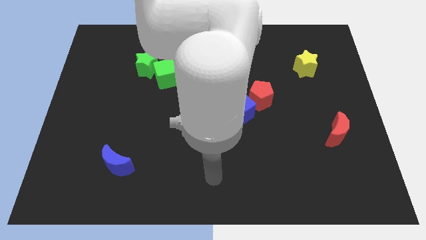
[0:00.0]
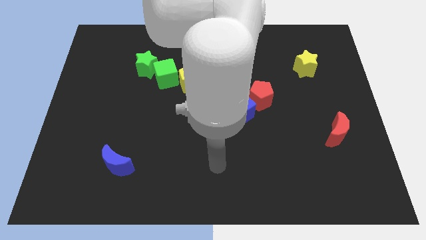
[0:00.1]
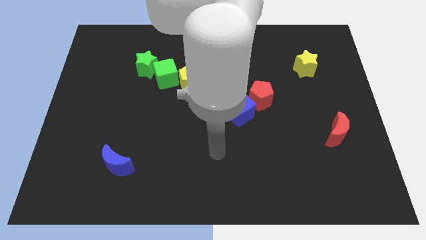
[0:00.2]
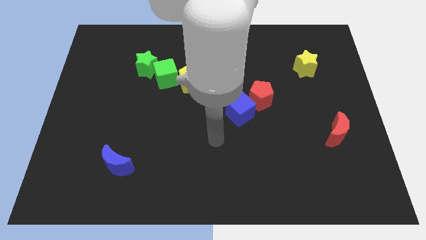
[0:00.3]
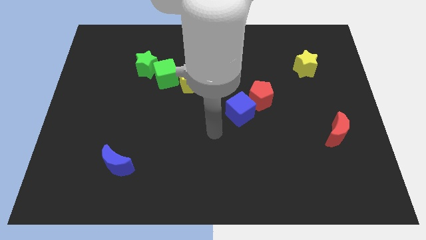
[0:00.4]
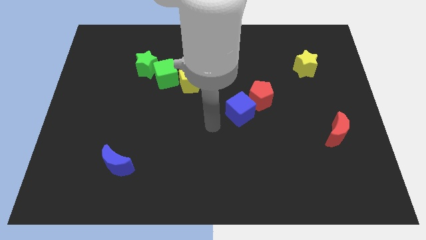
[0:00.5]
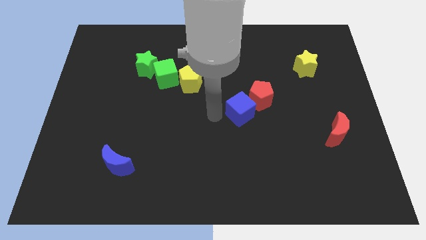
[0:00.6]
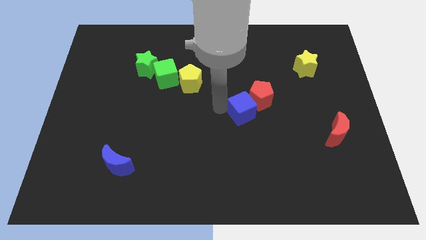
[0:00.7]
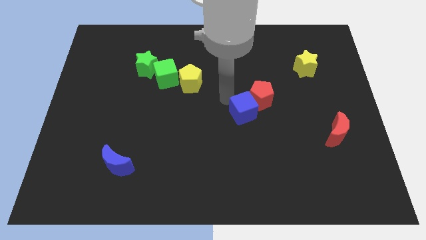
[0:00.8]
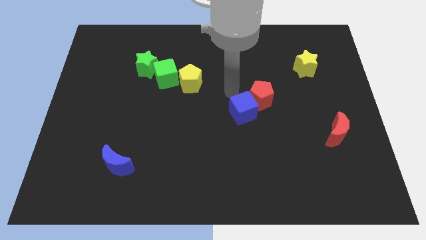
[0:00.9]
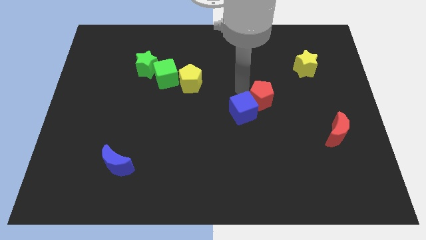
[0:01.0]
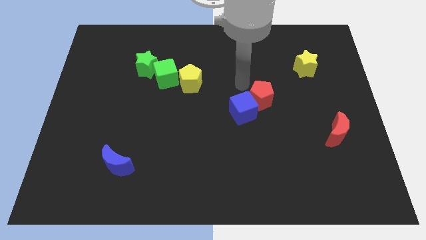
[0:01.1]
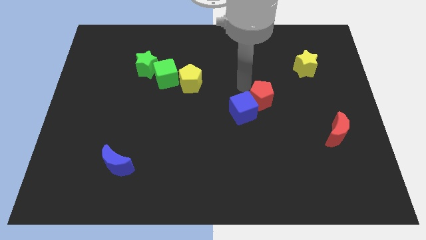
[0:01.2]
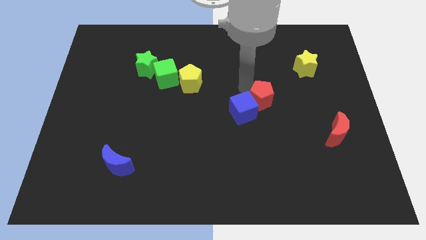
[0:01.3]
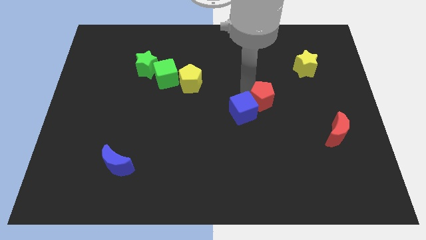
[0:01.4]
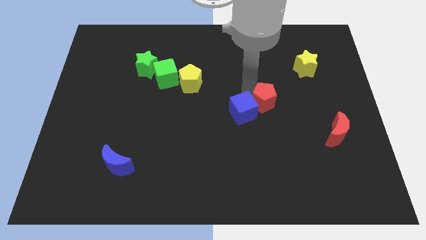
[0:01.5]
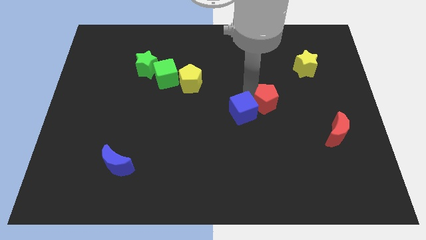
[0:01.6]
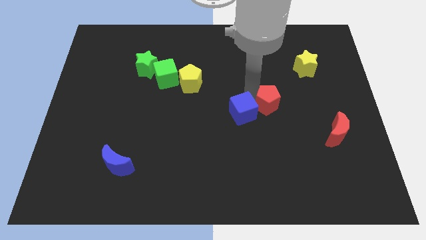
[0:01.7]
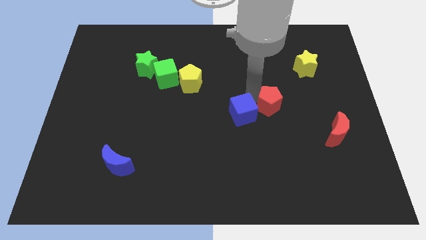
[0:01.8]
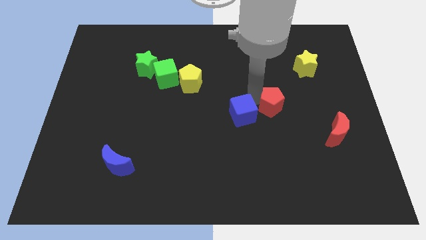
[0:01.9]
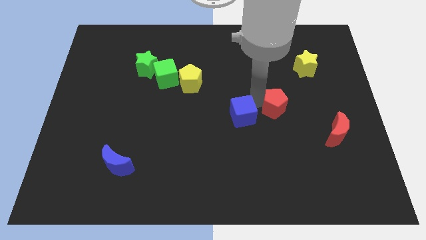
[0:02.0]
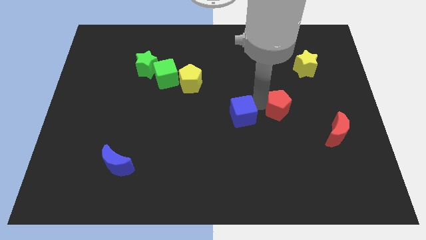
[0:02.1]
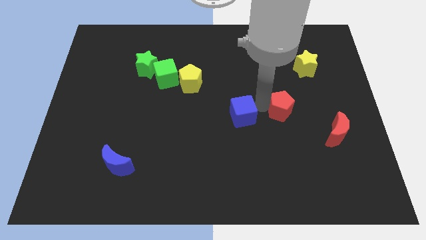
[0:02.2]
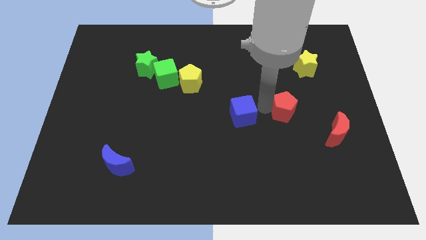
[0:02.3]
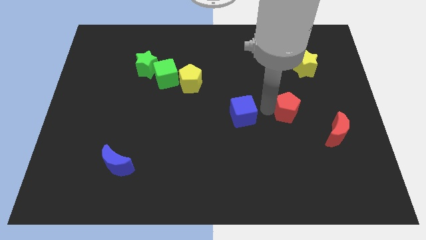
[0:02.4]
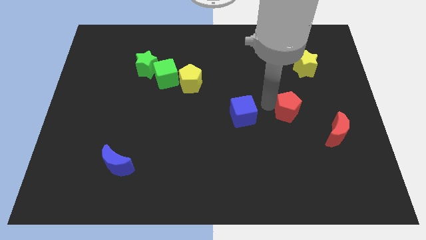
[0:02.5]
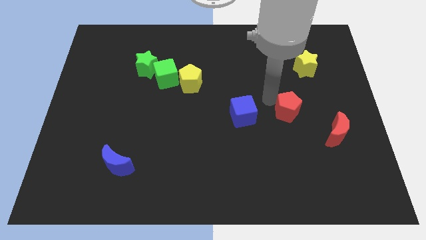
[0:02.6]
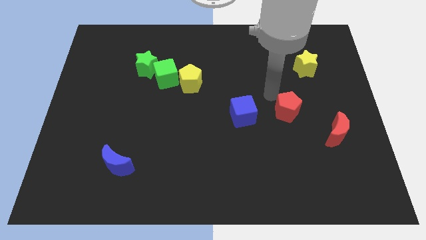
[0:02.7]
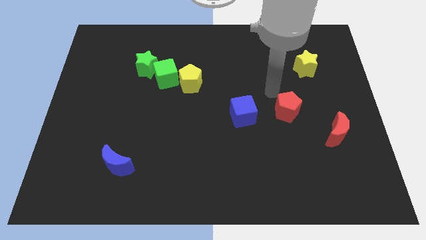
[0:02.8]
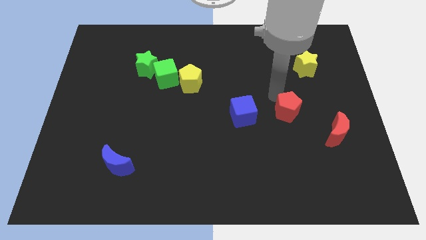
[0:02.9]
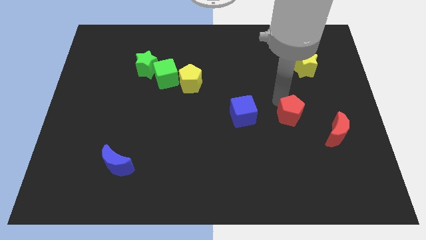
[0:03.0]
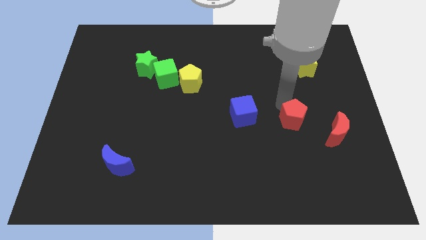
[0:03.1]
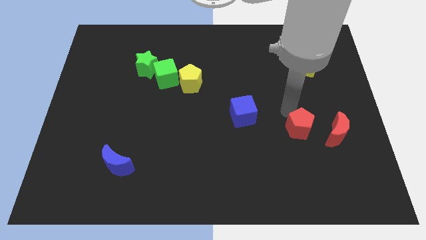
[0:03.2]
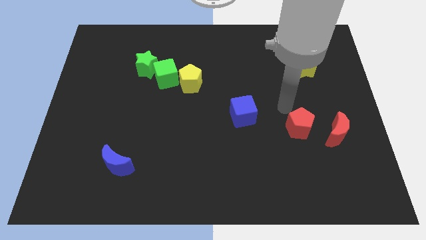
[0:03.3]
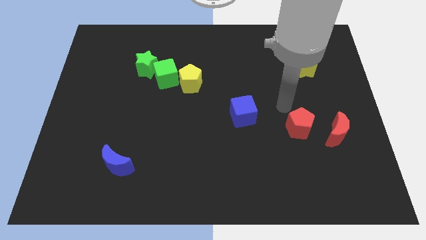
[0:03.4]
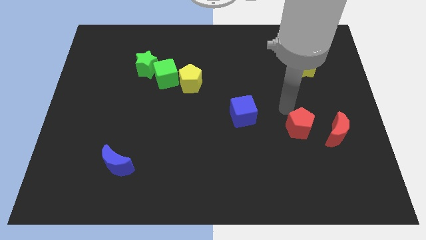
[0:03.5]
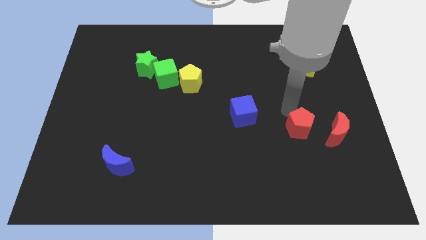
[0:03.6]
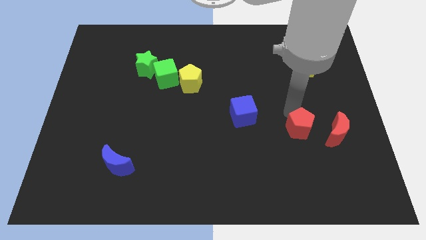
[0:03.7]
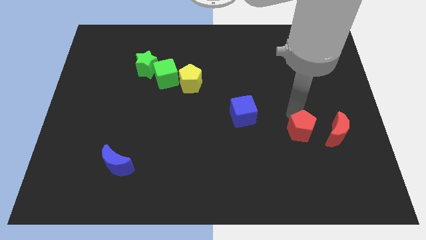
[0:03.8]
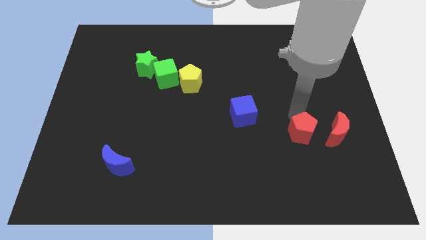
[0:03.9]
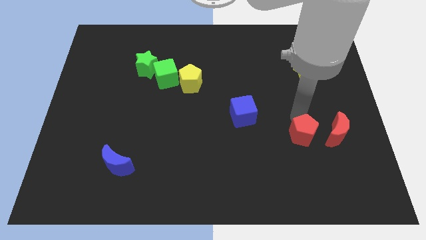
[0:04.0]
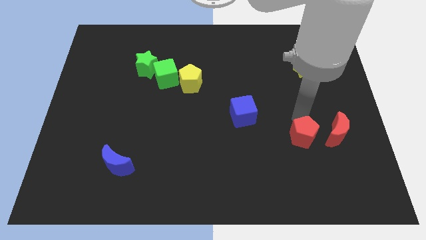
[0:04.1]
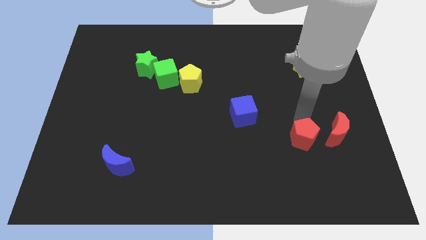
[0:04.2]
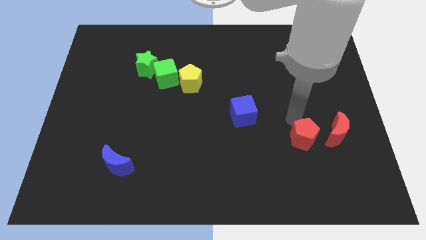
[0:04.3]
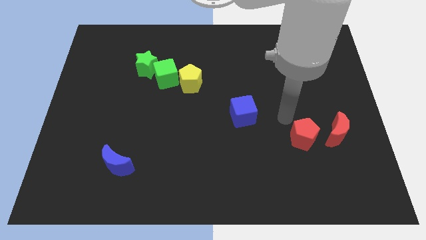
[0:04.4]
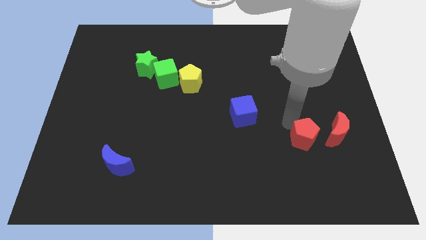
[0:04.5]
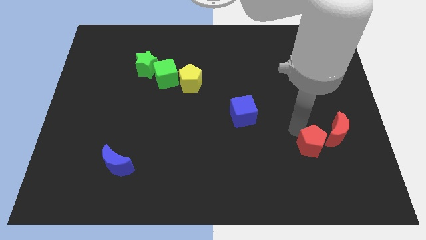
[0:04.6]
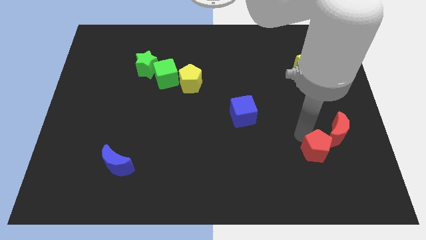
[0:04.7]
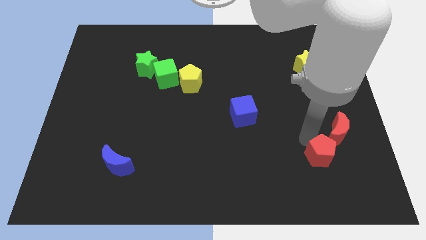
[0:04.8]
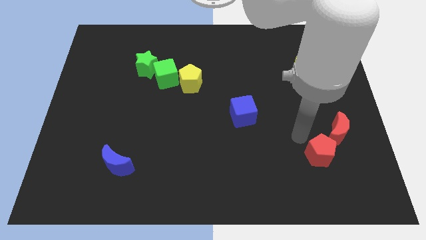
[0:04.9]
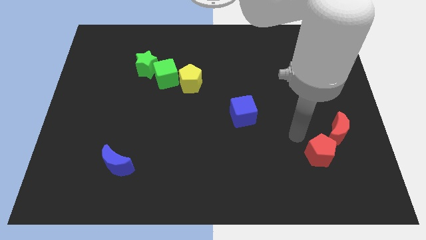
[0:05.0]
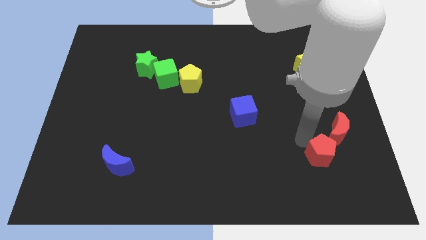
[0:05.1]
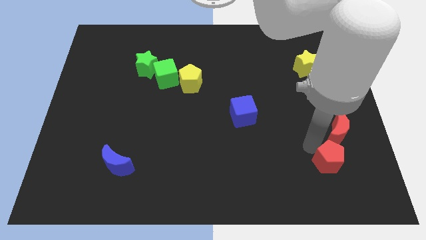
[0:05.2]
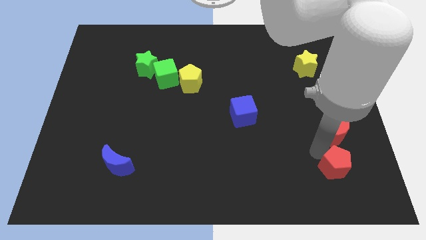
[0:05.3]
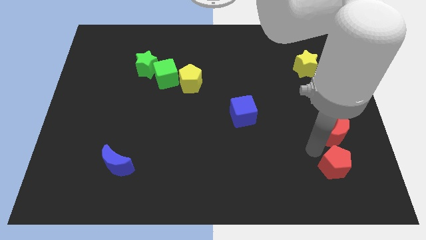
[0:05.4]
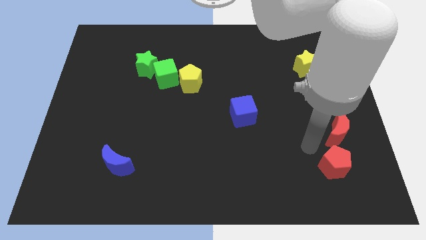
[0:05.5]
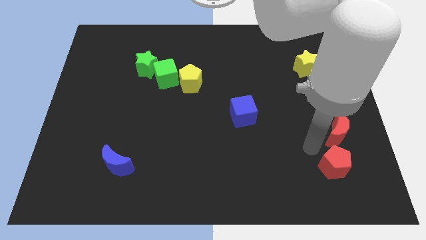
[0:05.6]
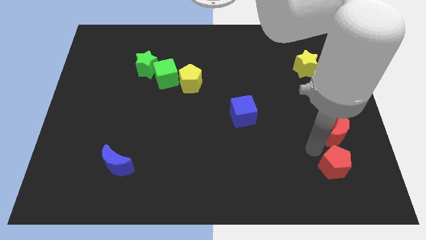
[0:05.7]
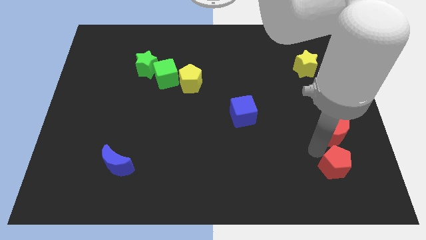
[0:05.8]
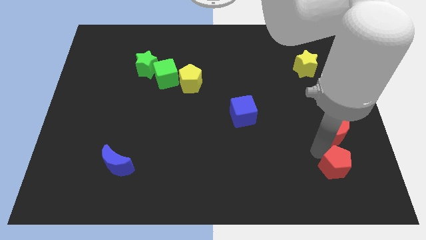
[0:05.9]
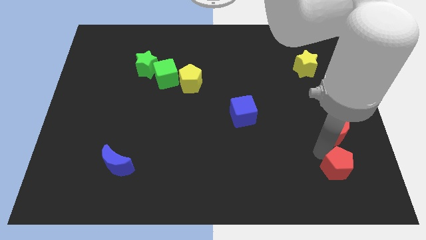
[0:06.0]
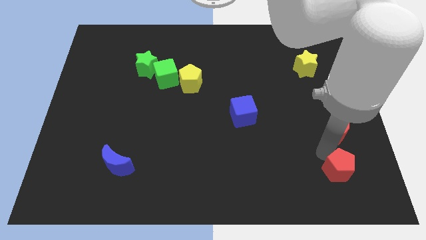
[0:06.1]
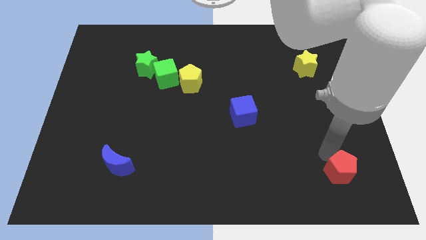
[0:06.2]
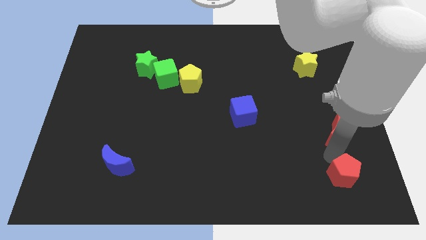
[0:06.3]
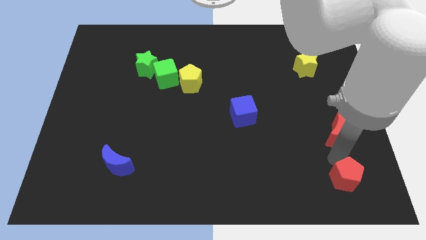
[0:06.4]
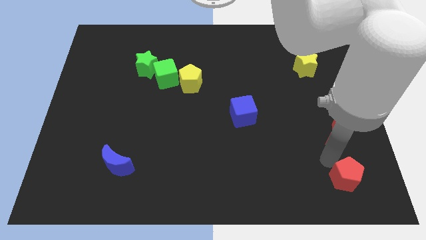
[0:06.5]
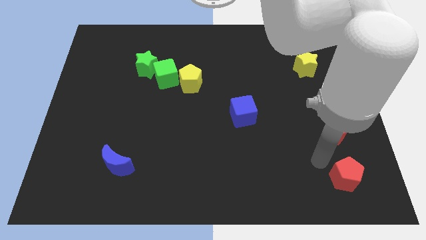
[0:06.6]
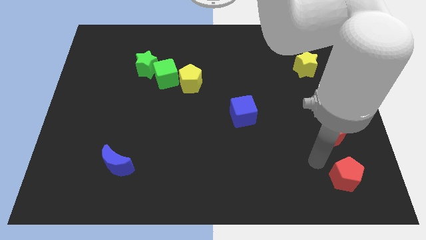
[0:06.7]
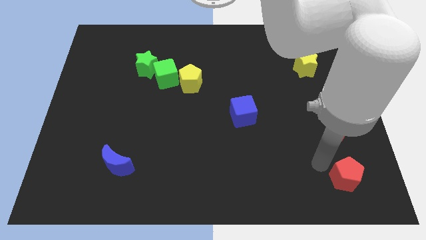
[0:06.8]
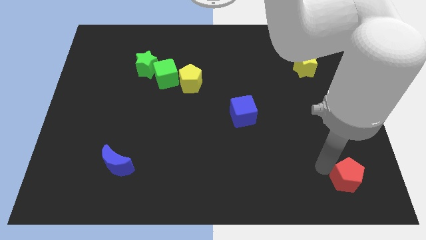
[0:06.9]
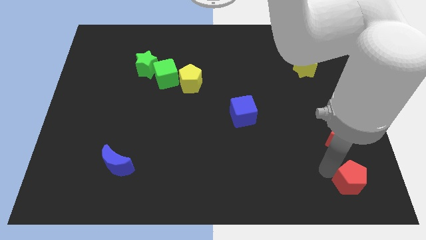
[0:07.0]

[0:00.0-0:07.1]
move the red pentagon to the bottom right of the board
